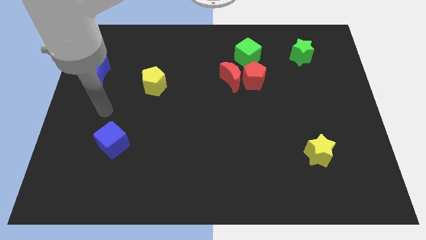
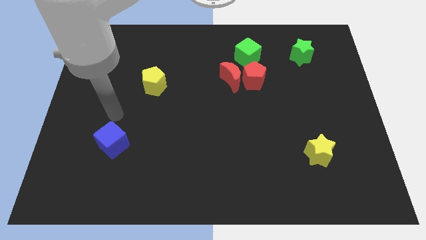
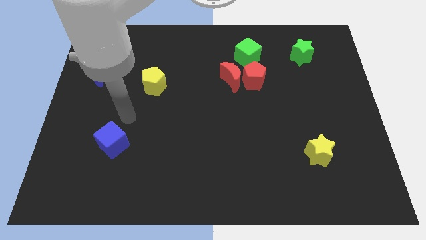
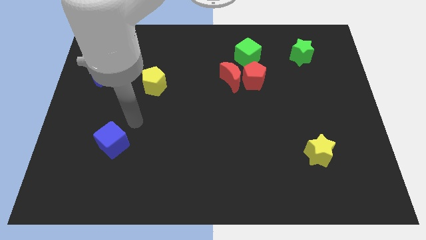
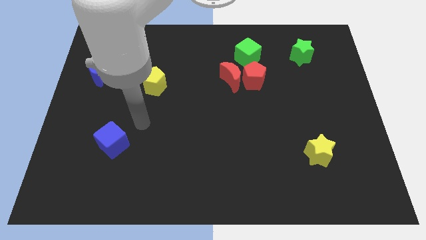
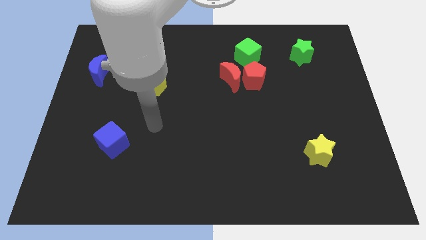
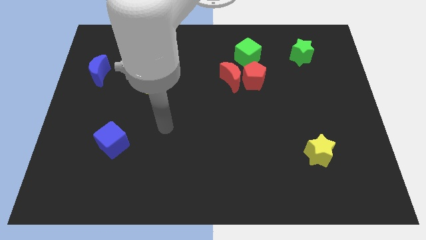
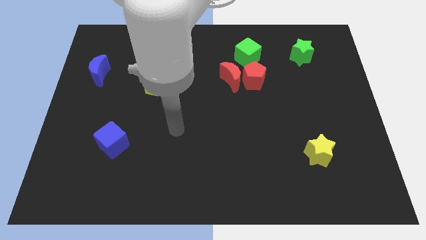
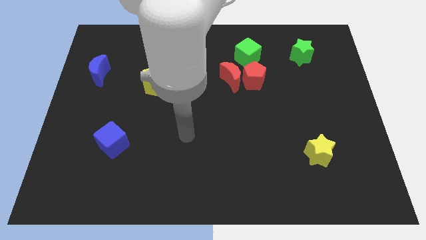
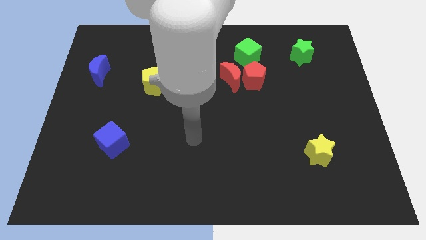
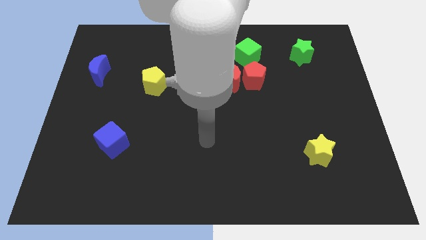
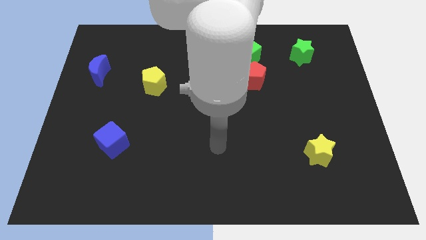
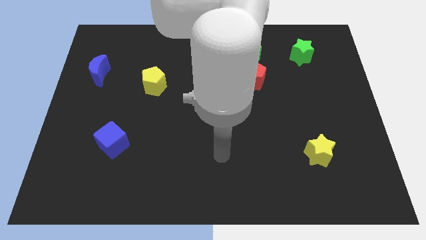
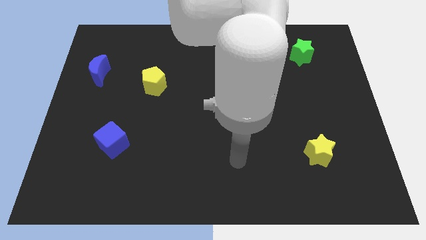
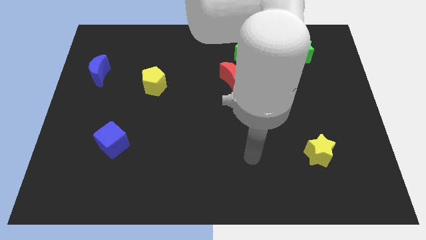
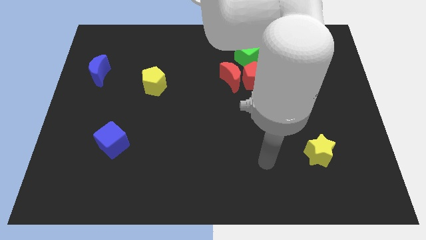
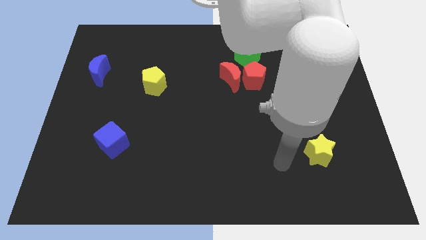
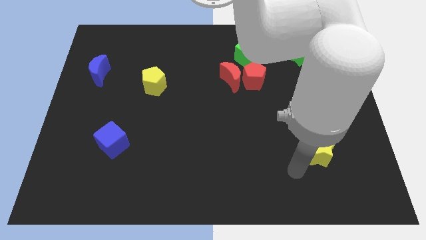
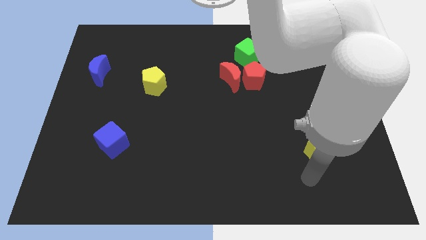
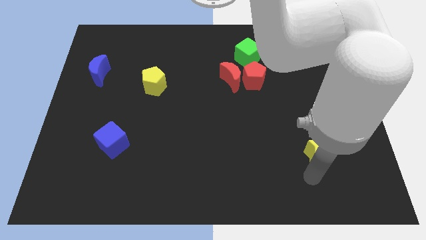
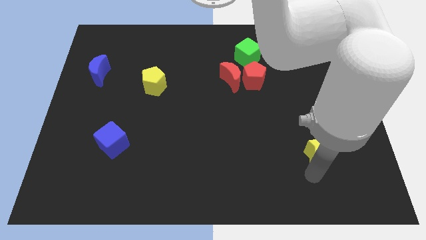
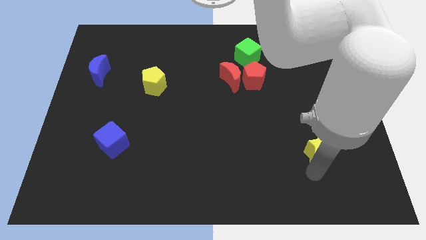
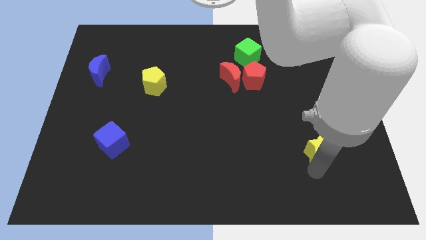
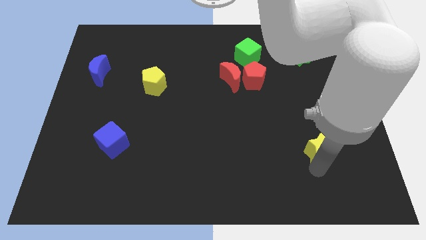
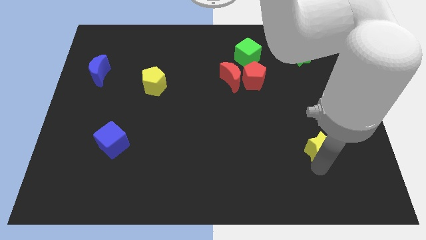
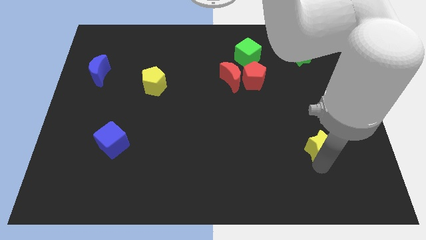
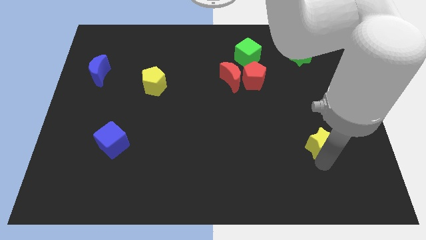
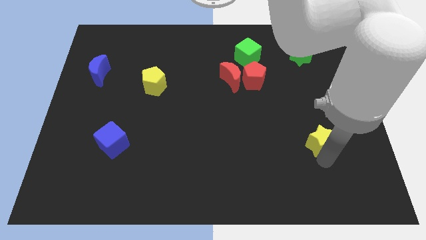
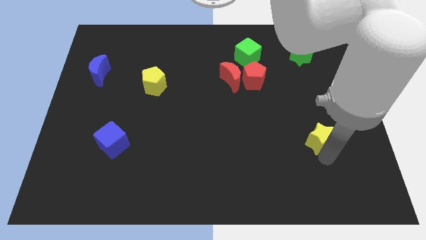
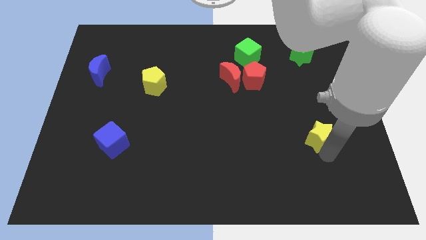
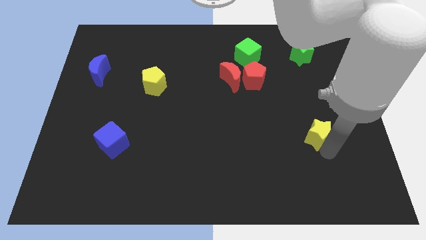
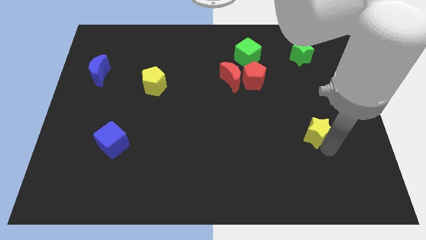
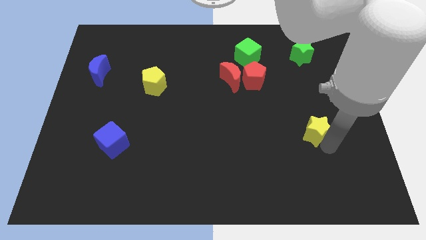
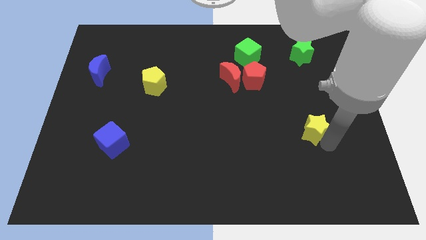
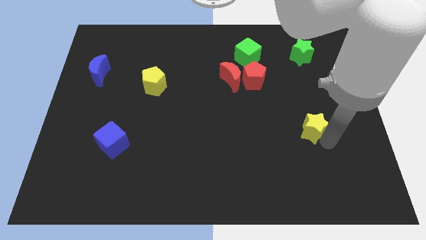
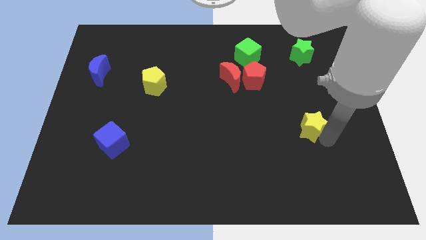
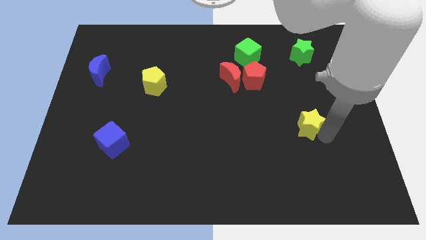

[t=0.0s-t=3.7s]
push the yellow star upwards a little bit

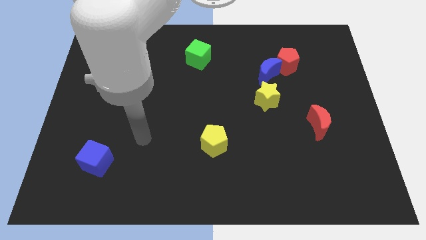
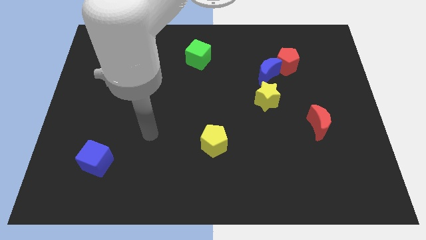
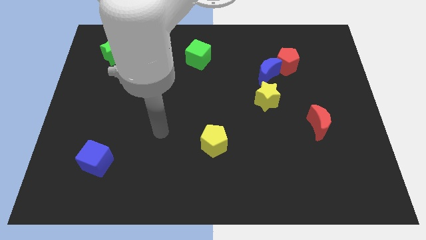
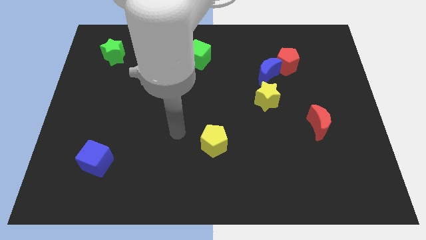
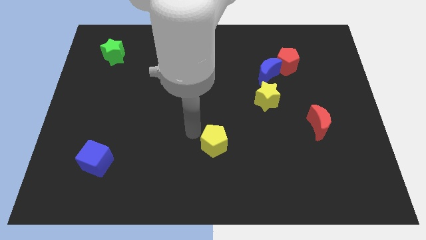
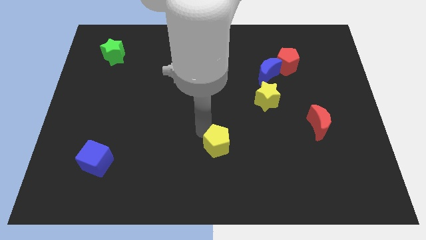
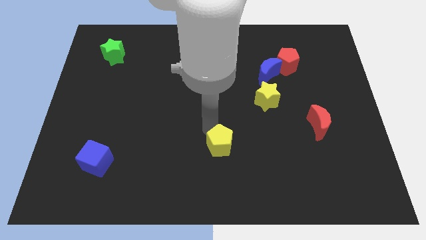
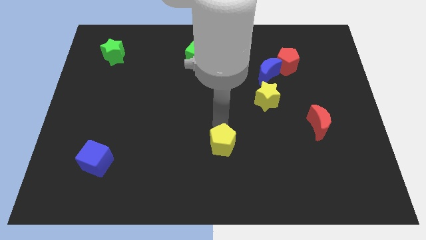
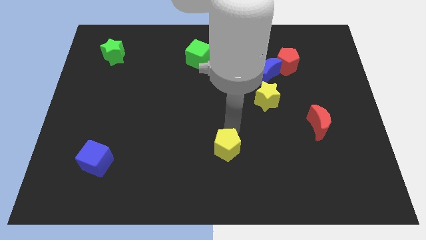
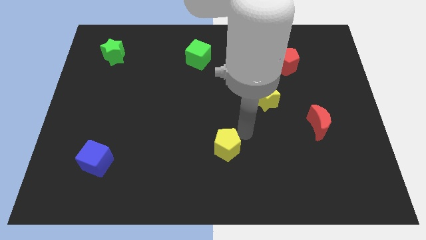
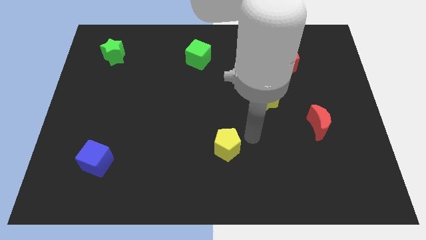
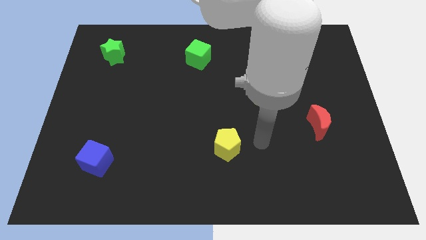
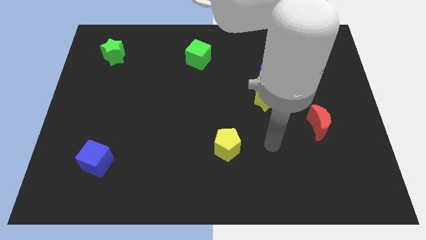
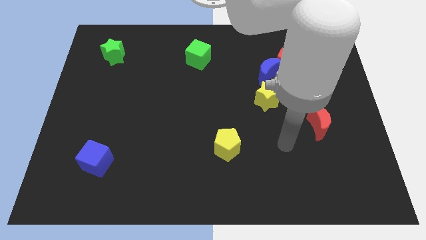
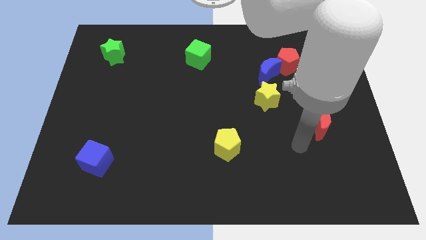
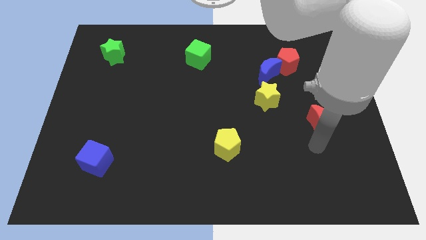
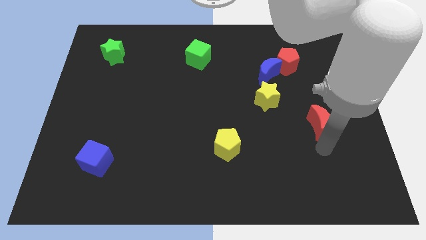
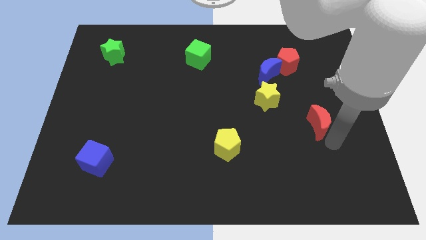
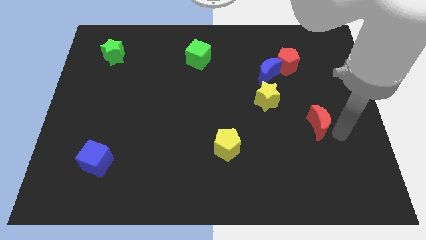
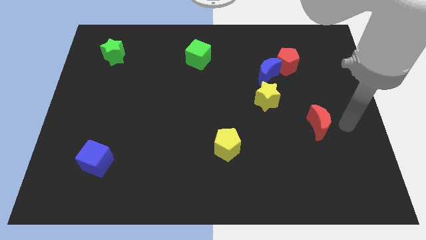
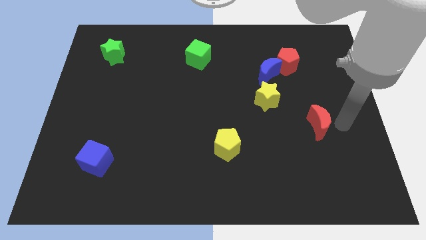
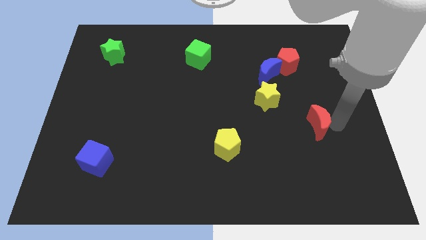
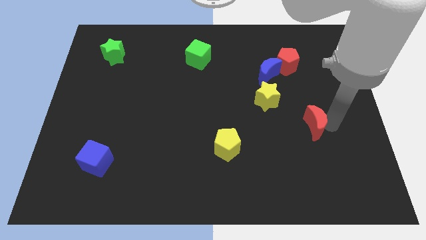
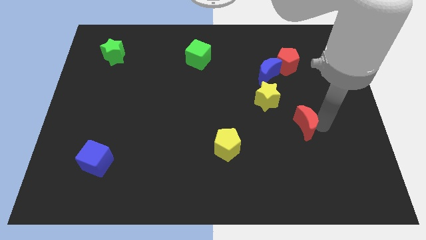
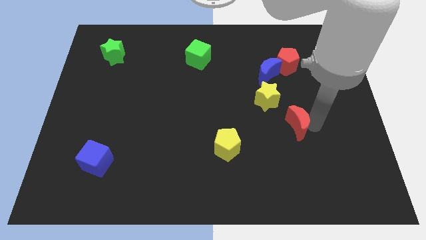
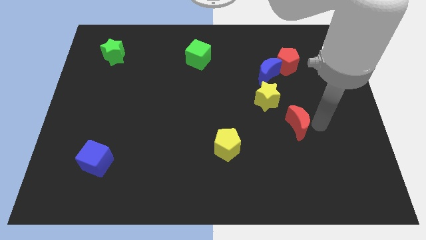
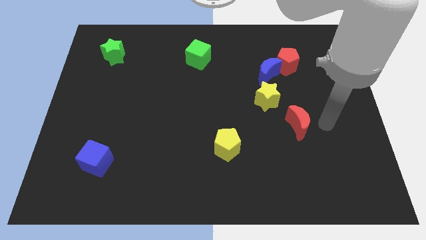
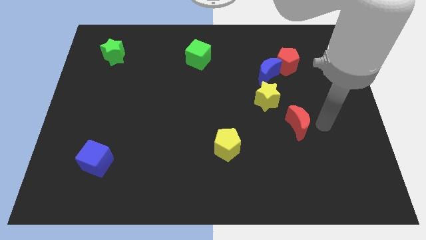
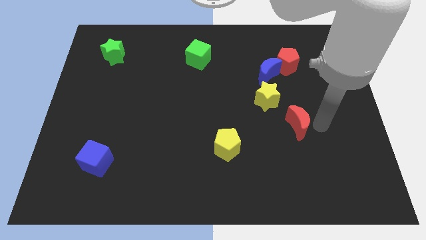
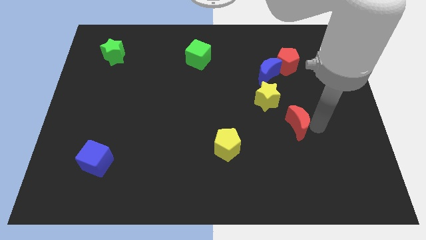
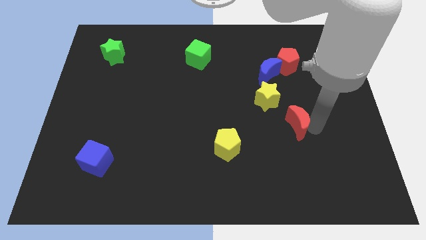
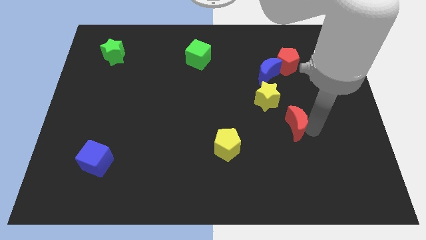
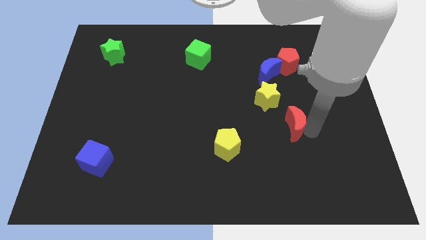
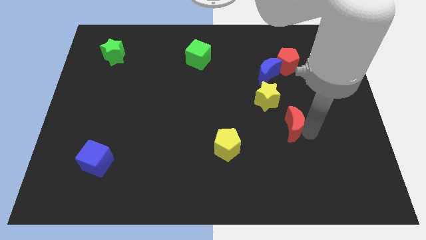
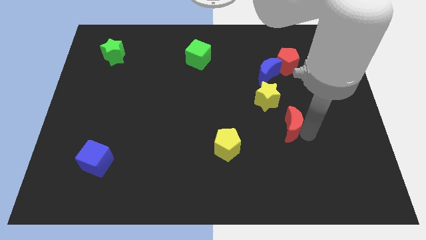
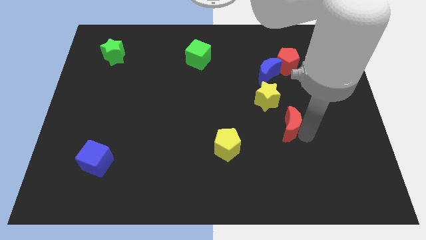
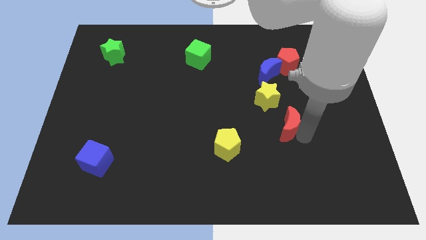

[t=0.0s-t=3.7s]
slightly slide the red moon left

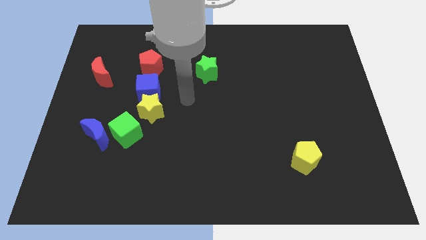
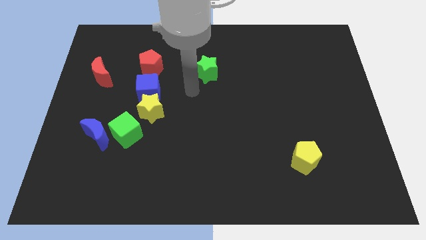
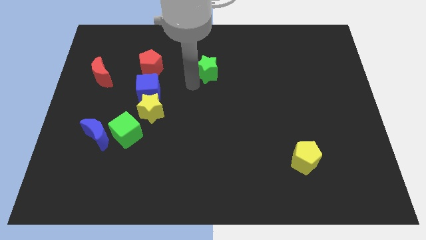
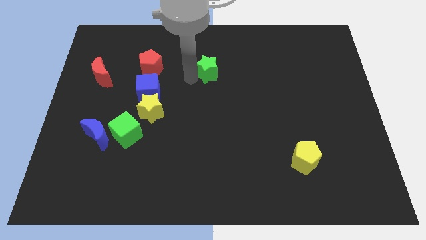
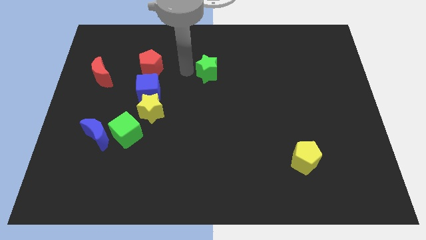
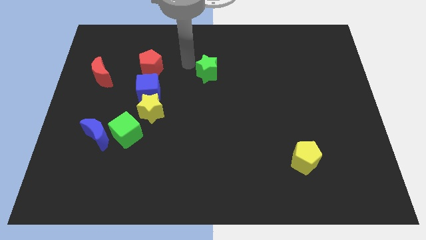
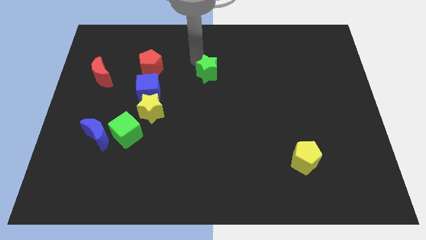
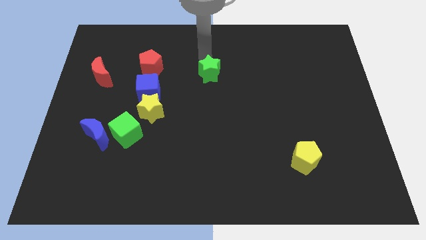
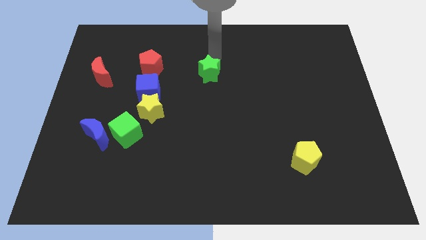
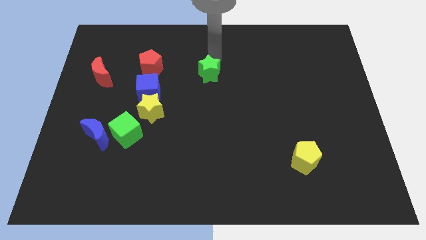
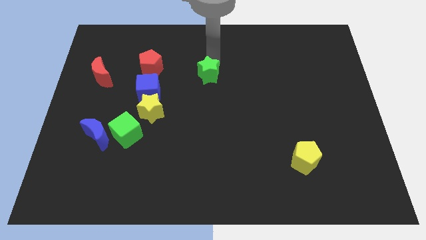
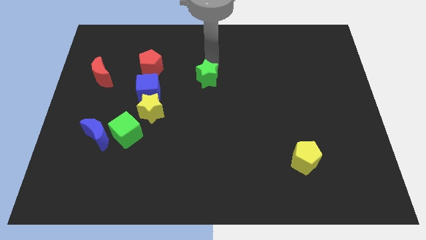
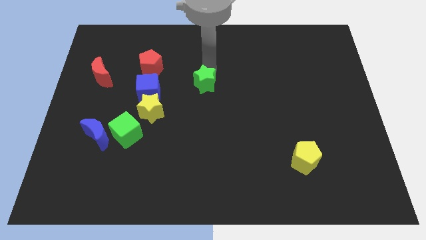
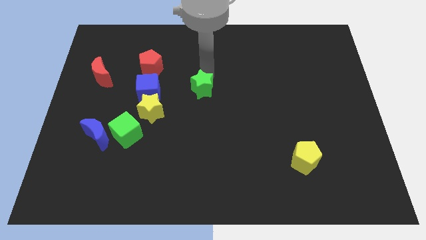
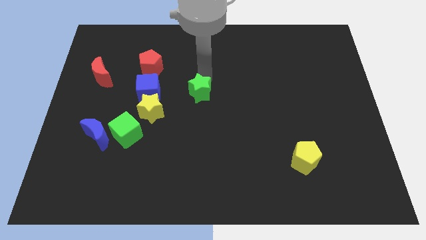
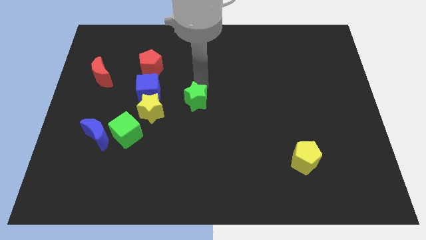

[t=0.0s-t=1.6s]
move the green star down a little bit
